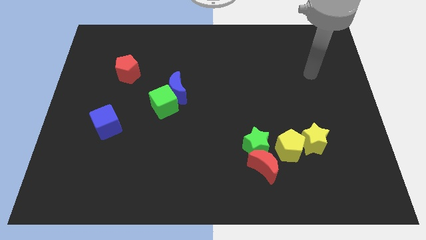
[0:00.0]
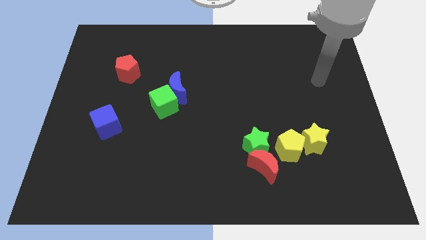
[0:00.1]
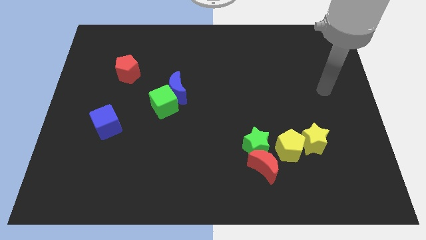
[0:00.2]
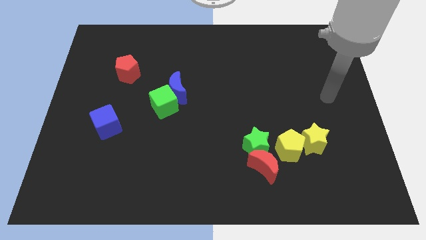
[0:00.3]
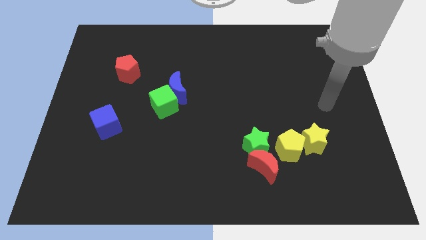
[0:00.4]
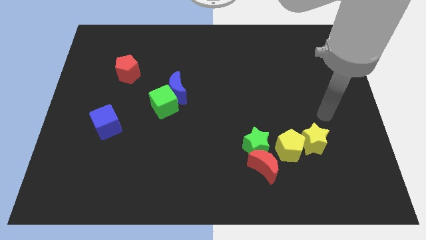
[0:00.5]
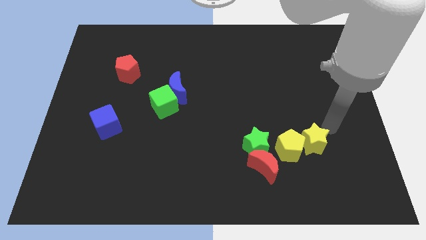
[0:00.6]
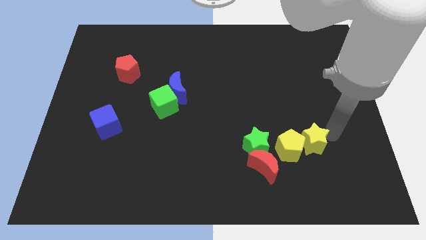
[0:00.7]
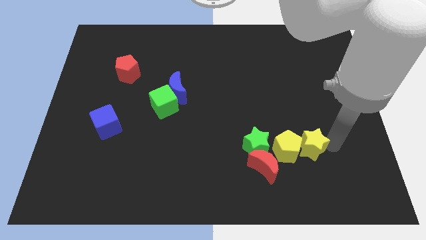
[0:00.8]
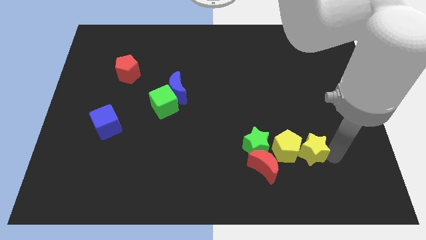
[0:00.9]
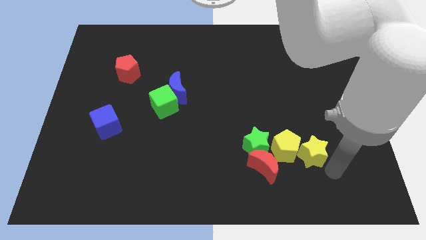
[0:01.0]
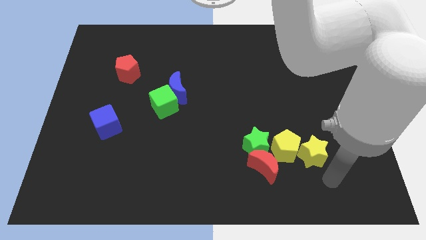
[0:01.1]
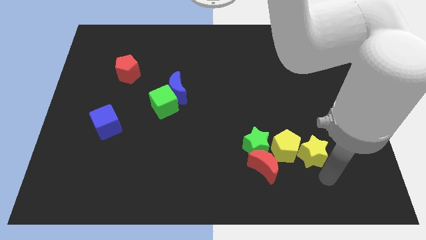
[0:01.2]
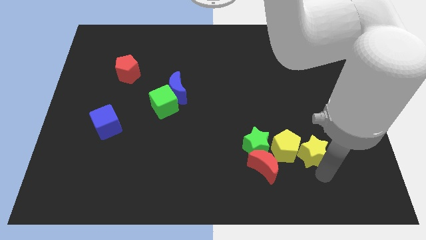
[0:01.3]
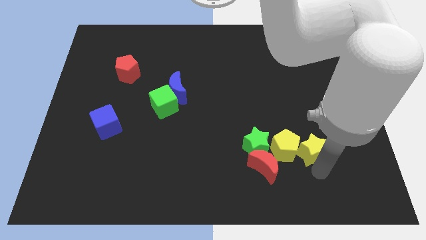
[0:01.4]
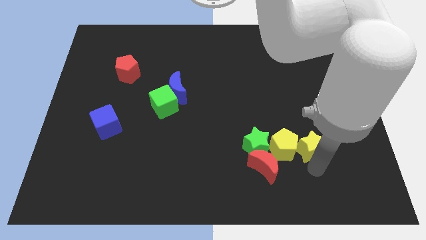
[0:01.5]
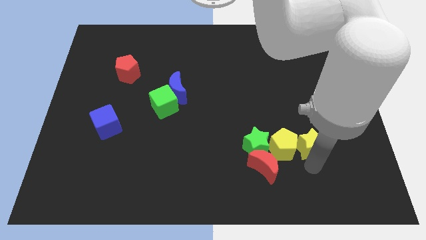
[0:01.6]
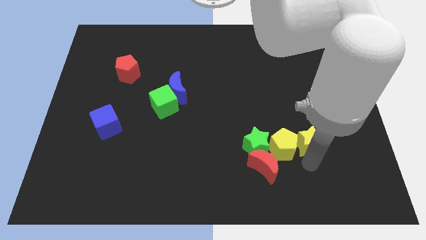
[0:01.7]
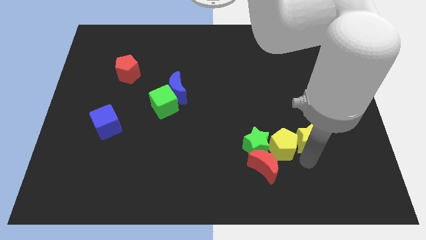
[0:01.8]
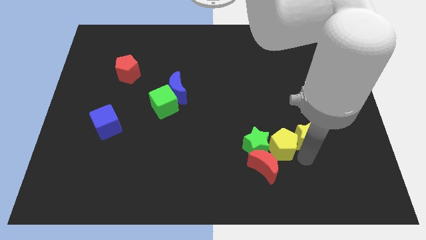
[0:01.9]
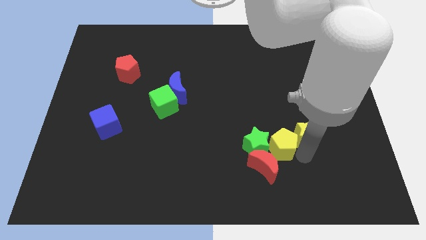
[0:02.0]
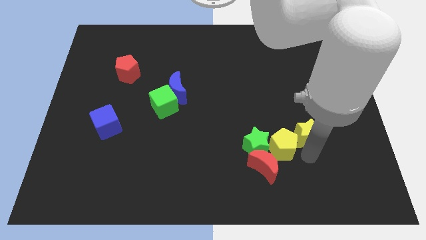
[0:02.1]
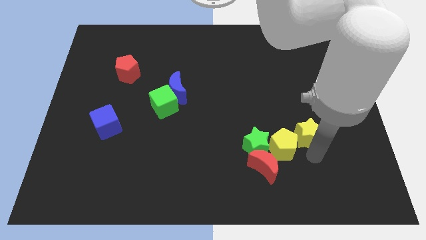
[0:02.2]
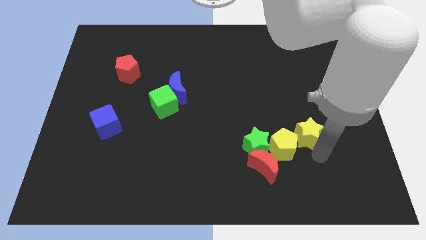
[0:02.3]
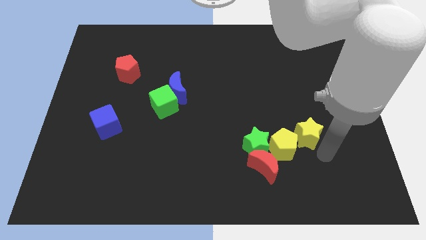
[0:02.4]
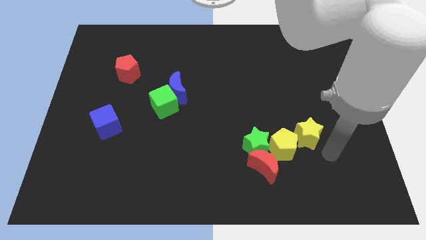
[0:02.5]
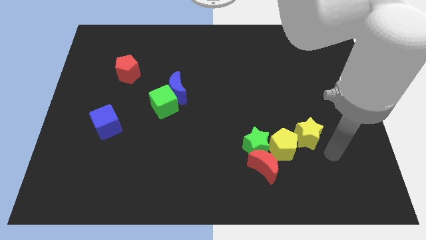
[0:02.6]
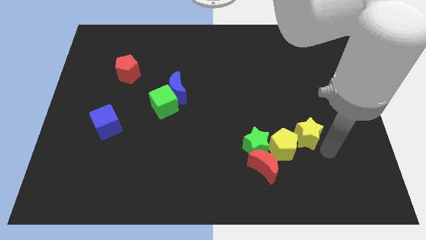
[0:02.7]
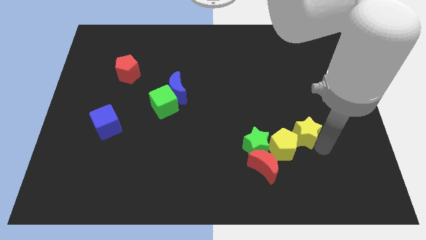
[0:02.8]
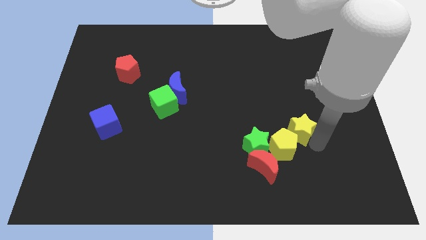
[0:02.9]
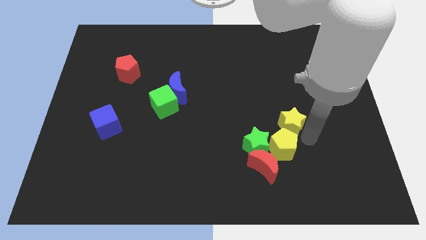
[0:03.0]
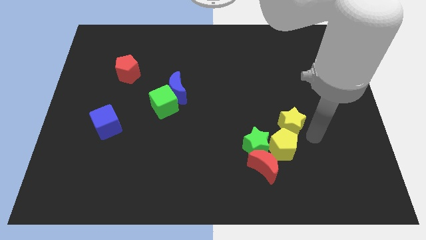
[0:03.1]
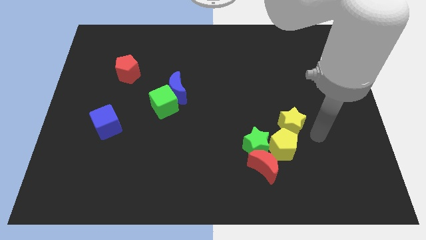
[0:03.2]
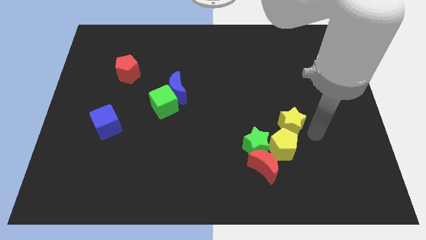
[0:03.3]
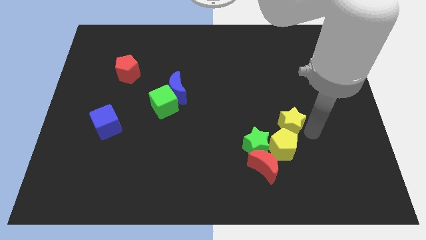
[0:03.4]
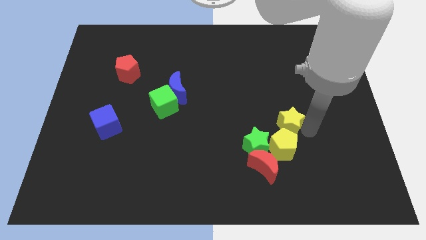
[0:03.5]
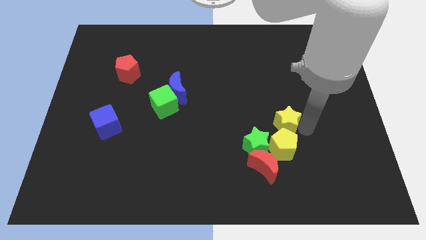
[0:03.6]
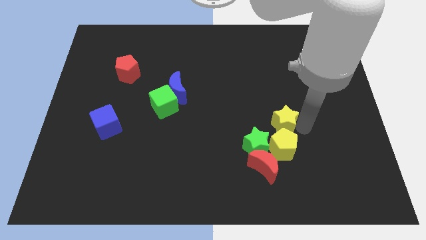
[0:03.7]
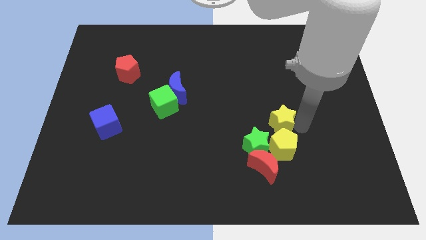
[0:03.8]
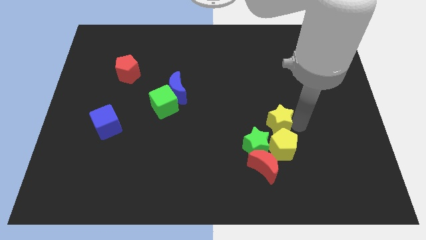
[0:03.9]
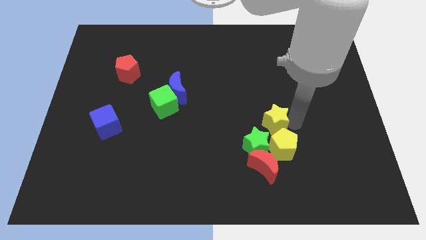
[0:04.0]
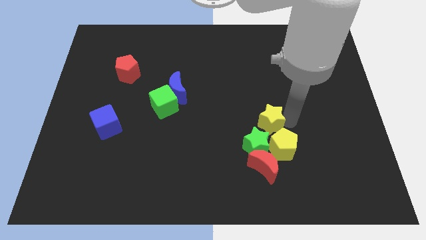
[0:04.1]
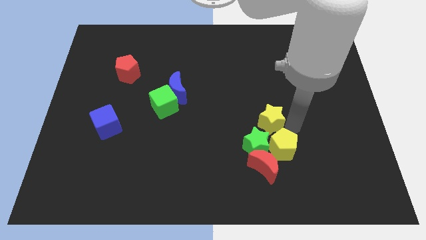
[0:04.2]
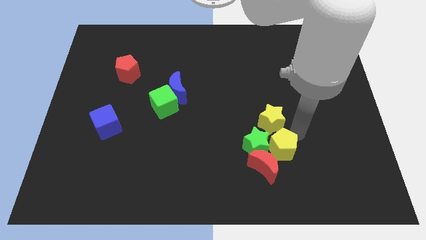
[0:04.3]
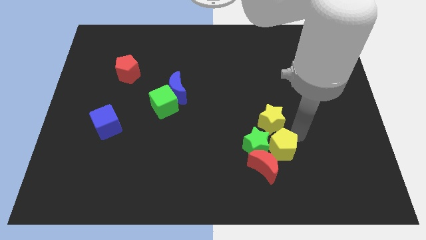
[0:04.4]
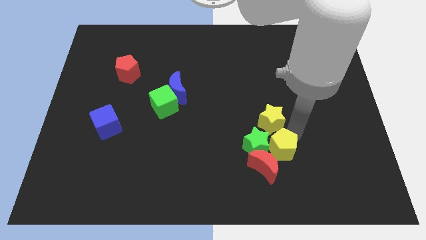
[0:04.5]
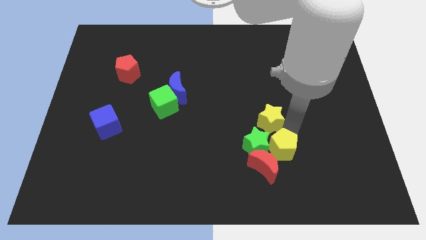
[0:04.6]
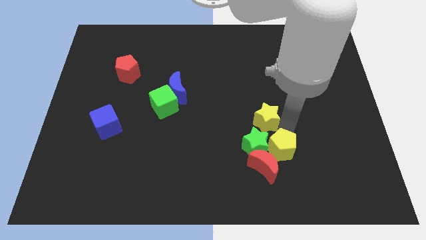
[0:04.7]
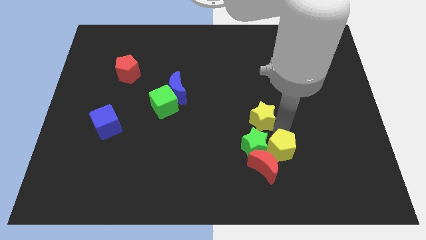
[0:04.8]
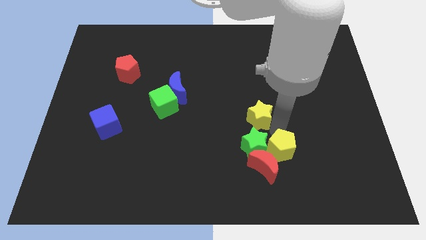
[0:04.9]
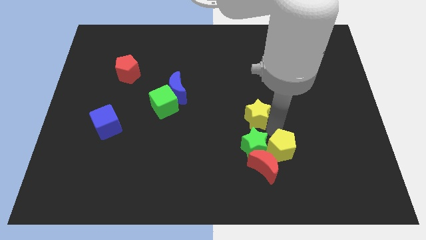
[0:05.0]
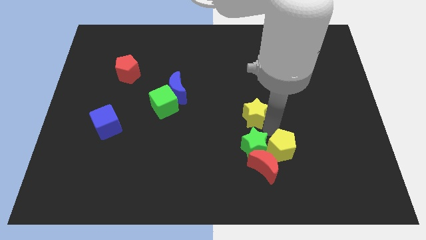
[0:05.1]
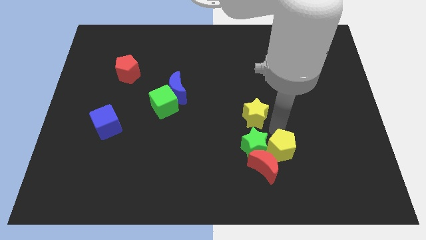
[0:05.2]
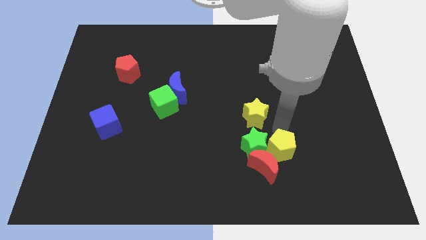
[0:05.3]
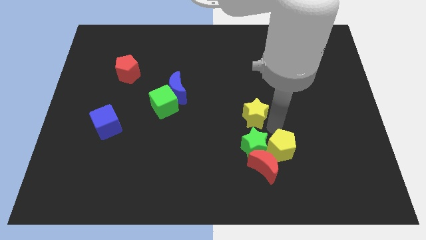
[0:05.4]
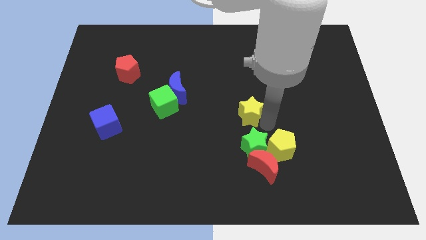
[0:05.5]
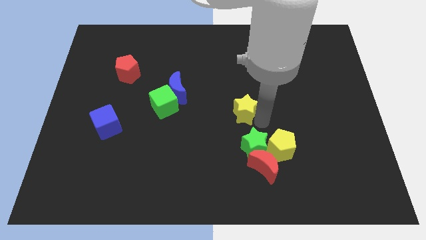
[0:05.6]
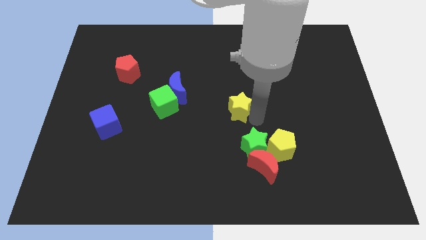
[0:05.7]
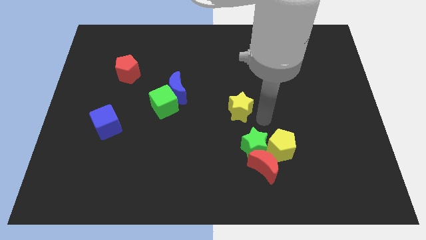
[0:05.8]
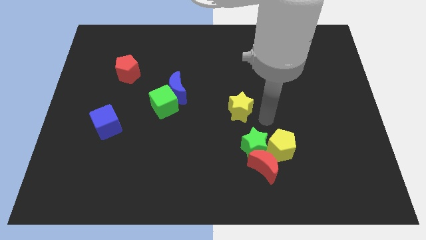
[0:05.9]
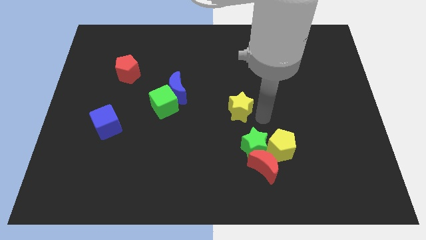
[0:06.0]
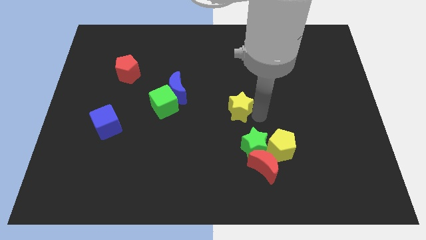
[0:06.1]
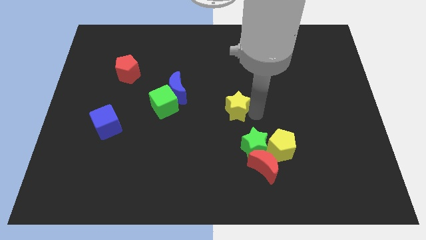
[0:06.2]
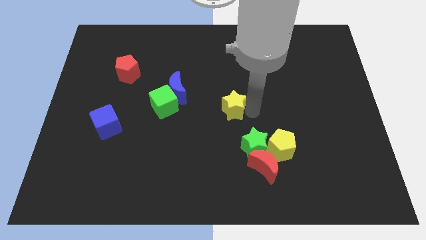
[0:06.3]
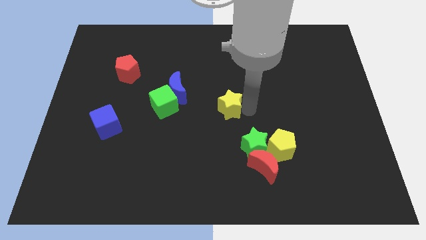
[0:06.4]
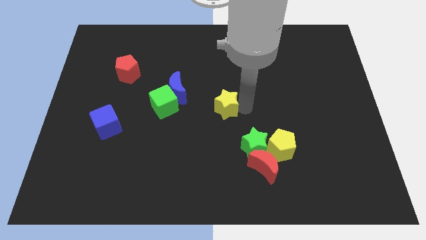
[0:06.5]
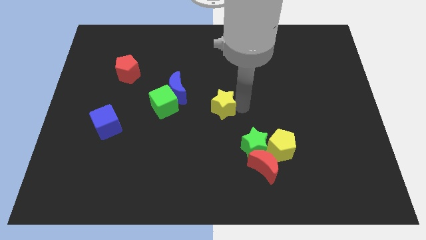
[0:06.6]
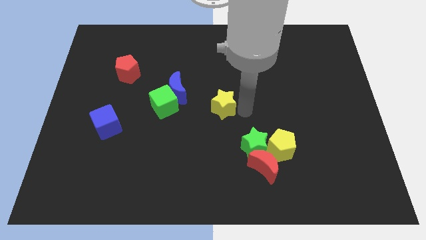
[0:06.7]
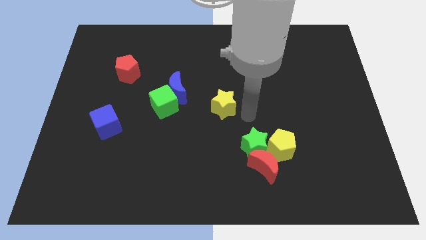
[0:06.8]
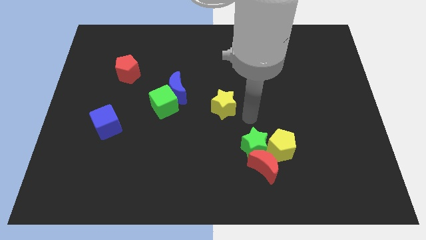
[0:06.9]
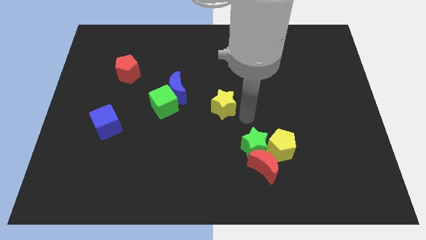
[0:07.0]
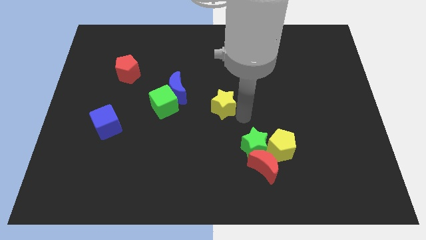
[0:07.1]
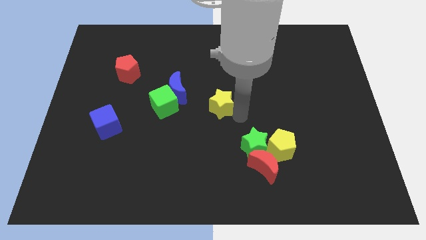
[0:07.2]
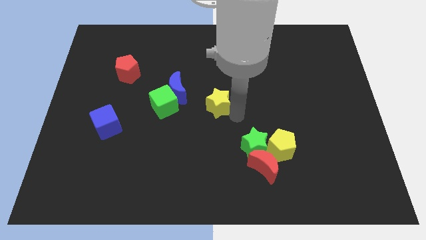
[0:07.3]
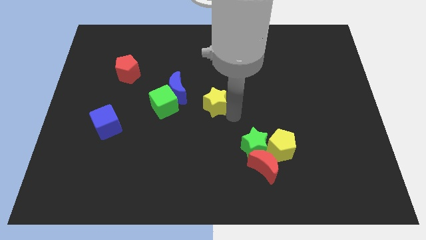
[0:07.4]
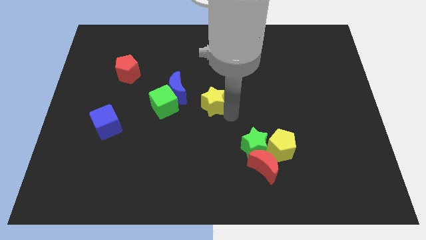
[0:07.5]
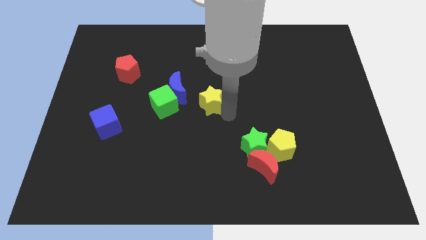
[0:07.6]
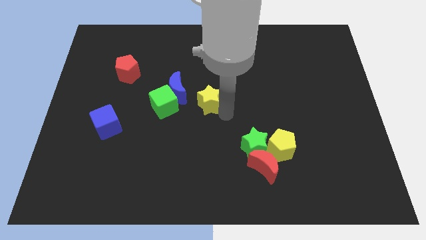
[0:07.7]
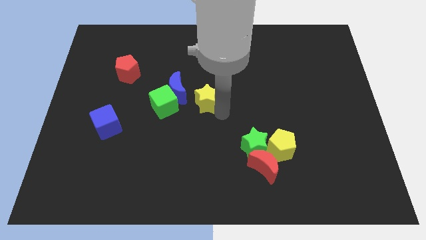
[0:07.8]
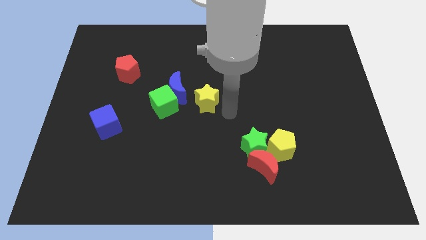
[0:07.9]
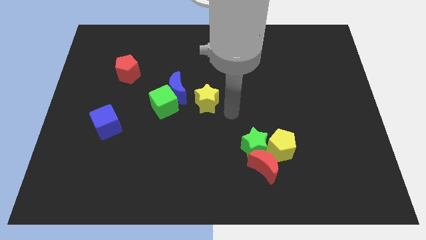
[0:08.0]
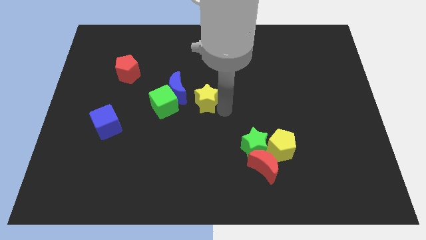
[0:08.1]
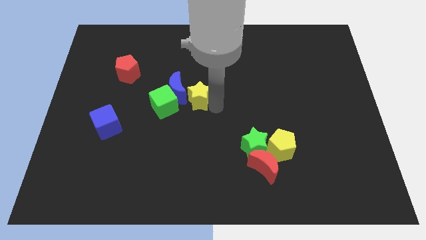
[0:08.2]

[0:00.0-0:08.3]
push the yellow star towards the blue moon
